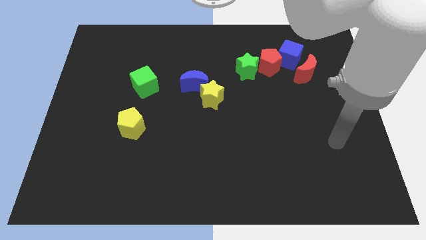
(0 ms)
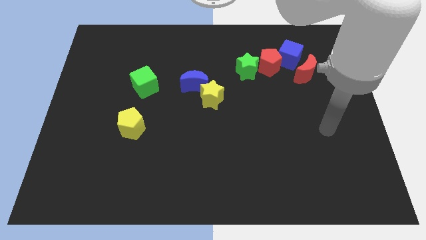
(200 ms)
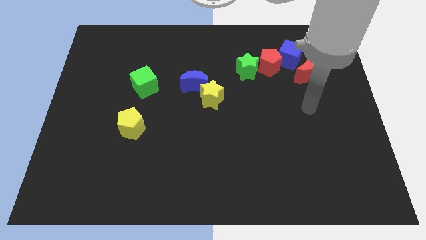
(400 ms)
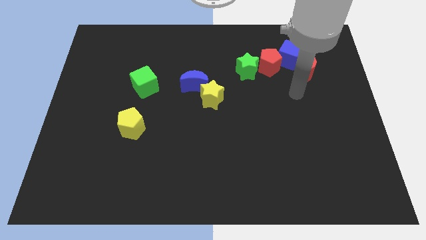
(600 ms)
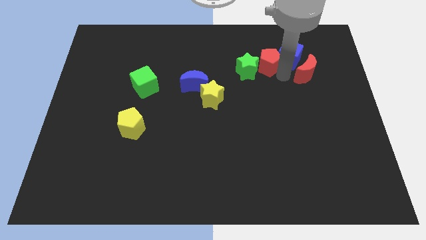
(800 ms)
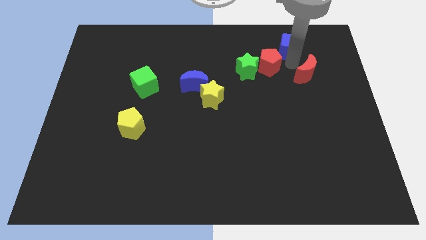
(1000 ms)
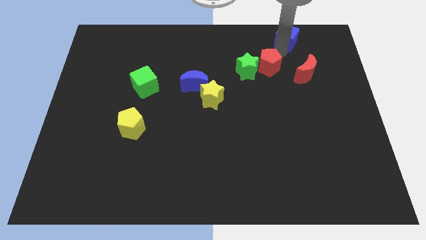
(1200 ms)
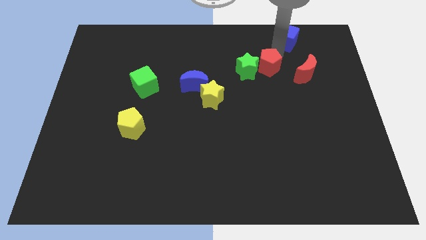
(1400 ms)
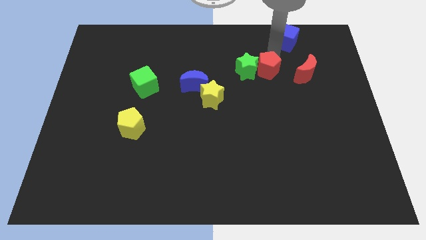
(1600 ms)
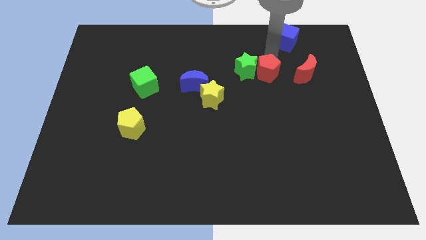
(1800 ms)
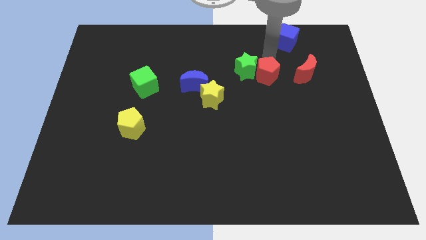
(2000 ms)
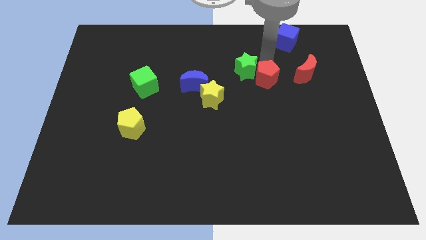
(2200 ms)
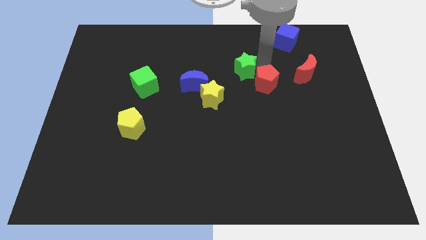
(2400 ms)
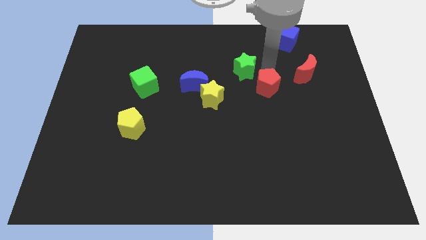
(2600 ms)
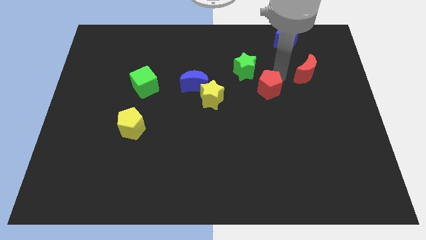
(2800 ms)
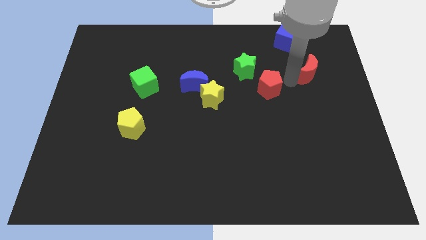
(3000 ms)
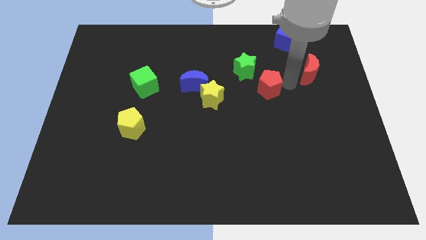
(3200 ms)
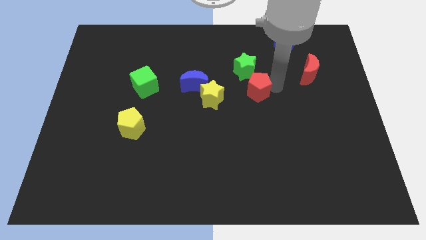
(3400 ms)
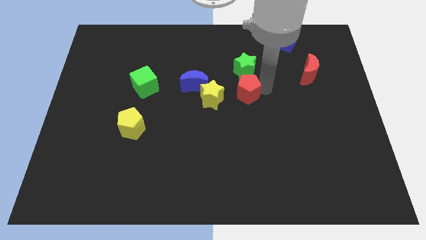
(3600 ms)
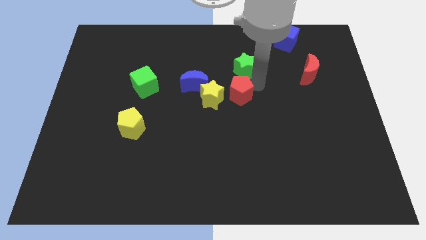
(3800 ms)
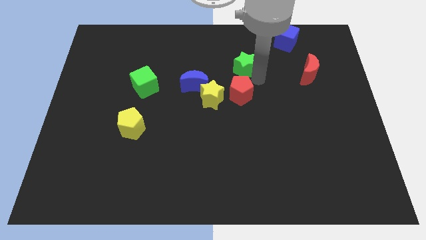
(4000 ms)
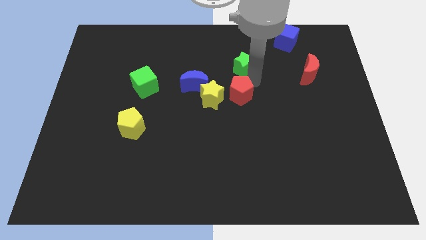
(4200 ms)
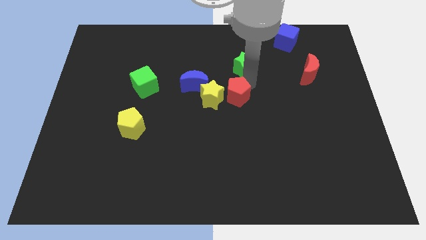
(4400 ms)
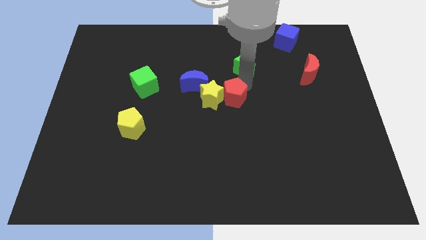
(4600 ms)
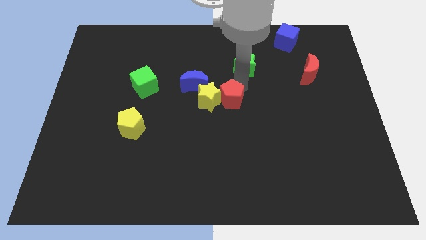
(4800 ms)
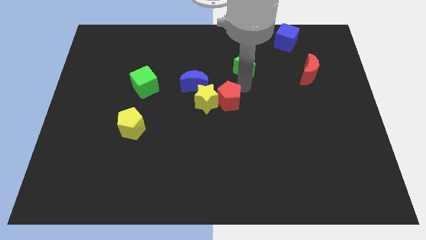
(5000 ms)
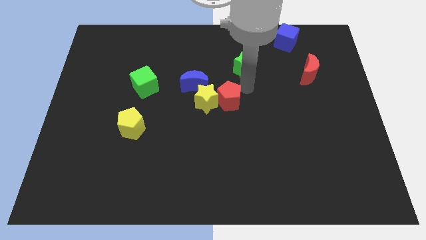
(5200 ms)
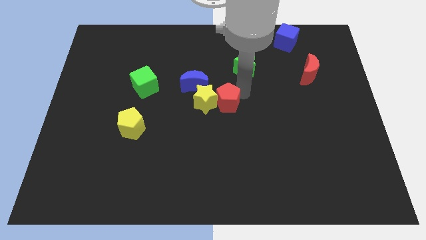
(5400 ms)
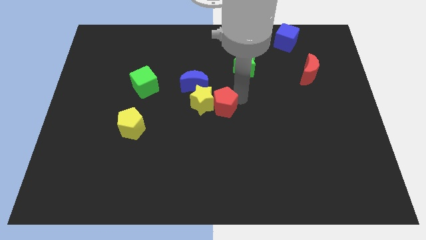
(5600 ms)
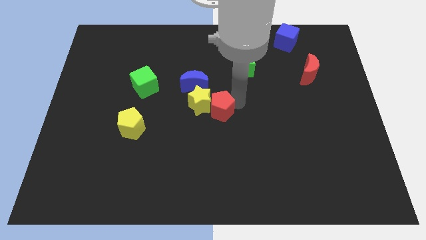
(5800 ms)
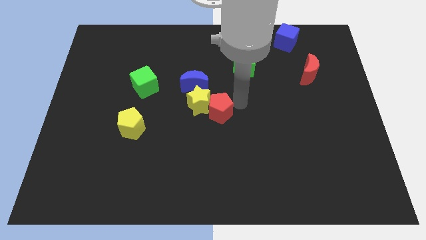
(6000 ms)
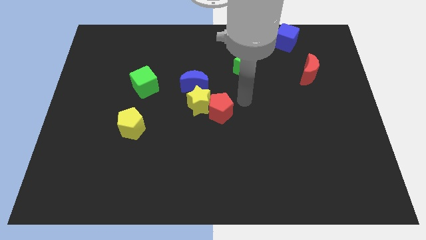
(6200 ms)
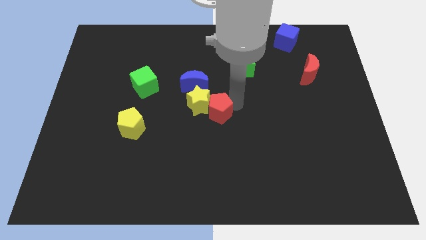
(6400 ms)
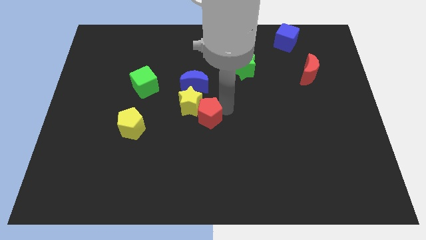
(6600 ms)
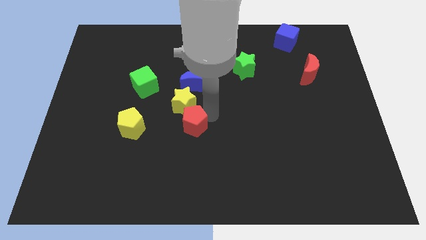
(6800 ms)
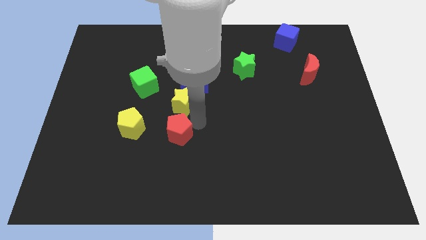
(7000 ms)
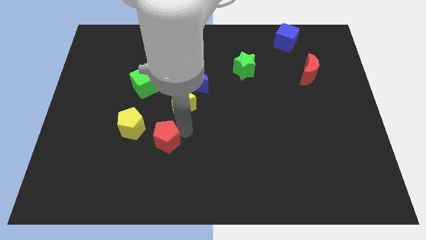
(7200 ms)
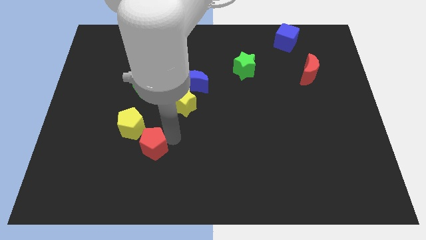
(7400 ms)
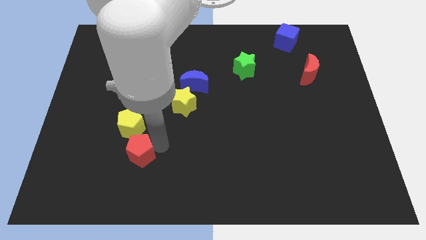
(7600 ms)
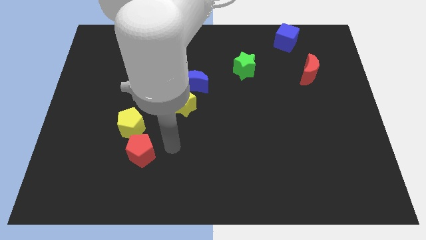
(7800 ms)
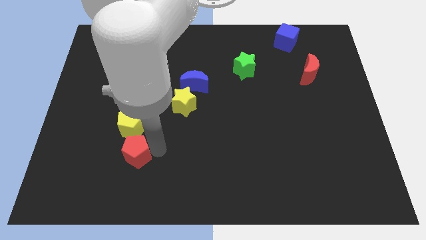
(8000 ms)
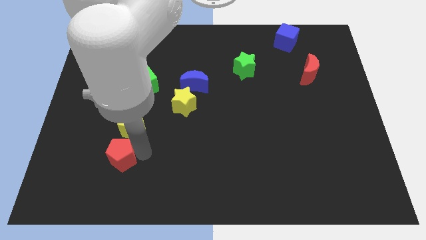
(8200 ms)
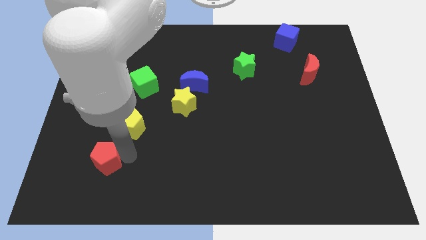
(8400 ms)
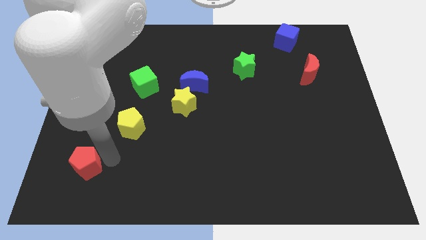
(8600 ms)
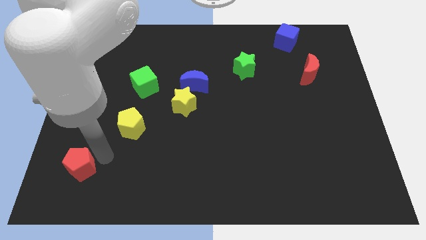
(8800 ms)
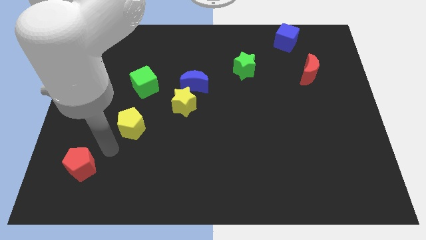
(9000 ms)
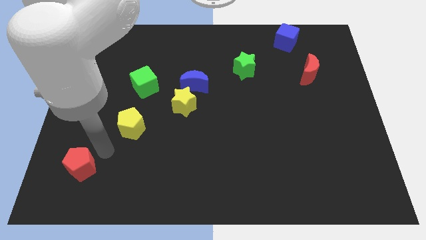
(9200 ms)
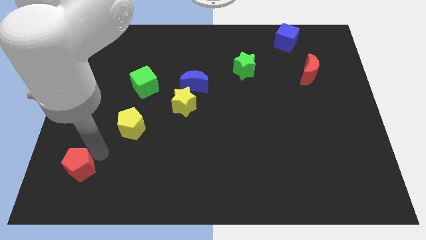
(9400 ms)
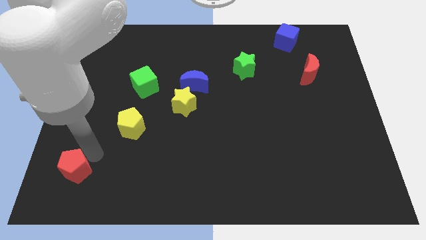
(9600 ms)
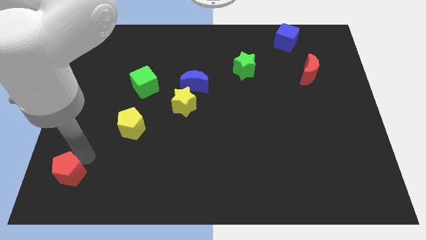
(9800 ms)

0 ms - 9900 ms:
put the red pentagon to the bottom left

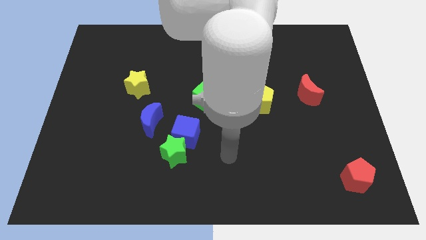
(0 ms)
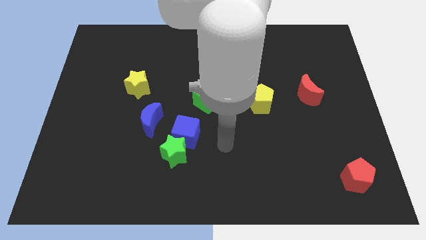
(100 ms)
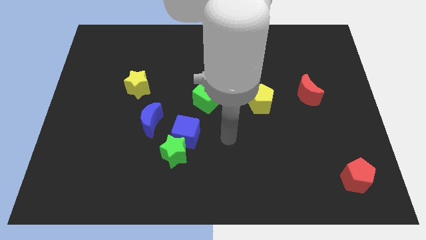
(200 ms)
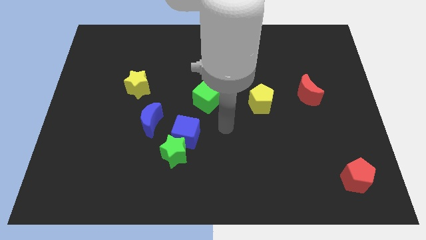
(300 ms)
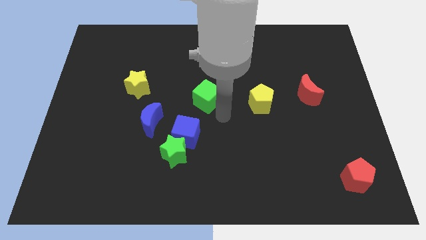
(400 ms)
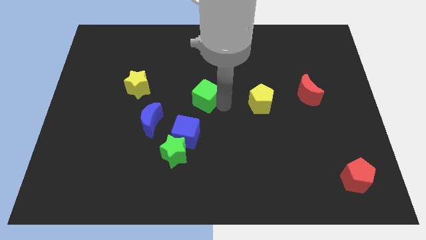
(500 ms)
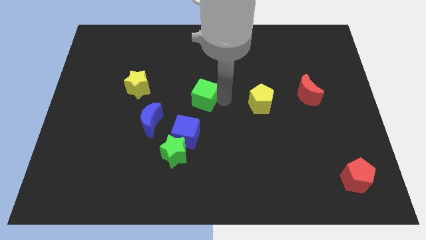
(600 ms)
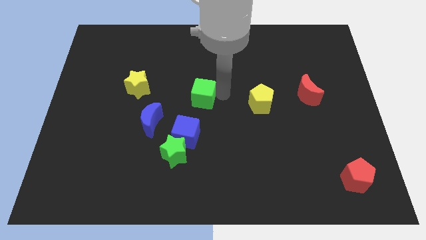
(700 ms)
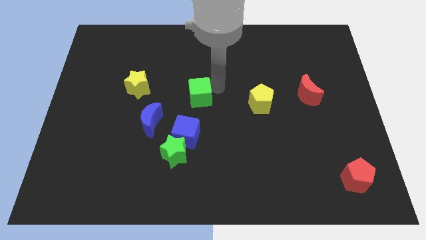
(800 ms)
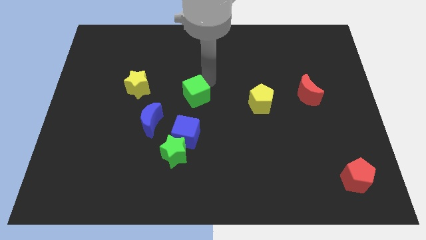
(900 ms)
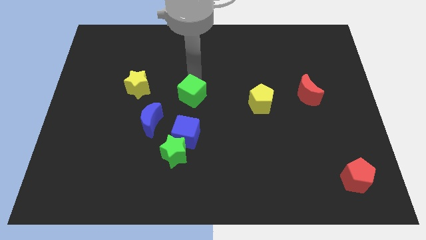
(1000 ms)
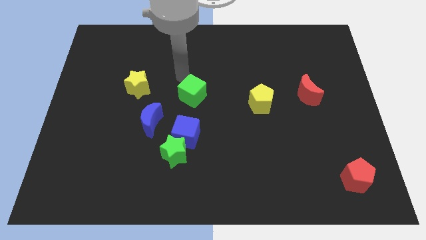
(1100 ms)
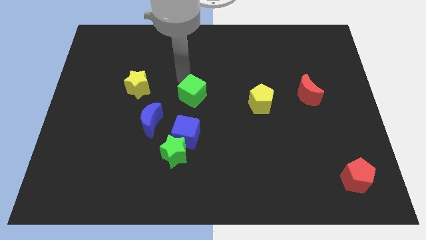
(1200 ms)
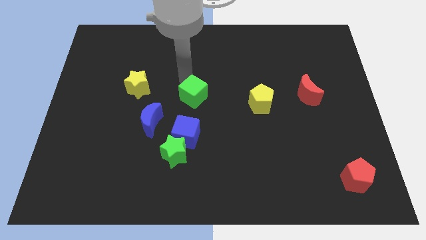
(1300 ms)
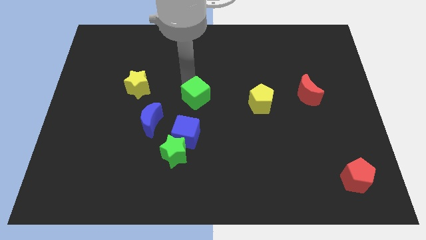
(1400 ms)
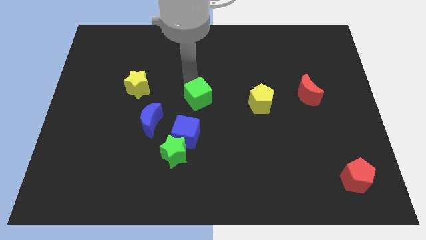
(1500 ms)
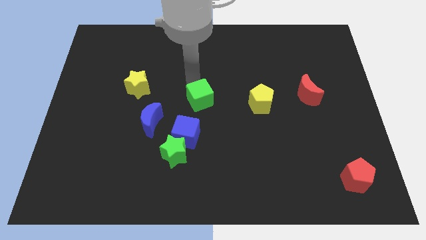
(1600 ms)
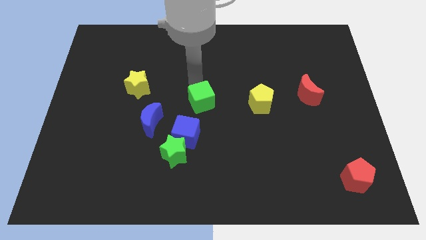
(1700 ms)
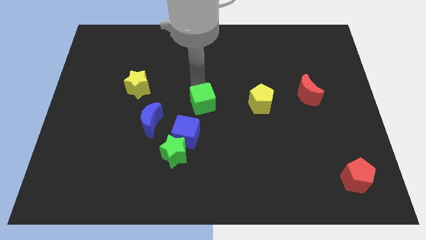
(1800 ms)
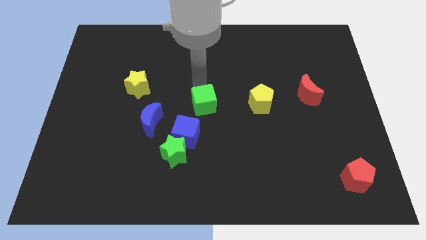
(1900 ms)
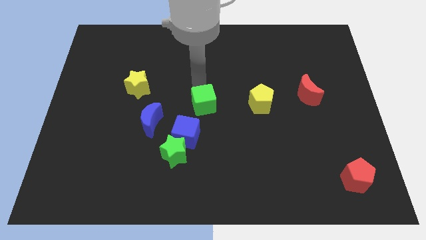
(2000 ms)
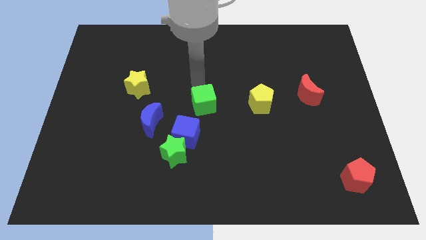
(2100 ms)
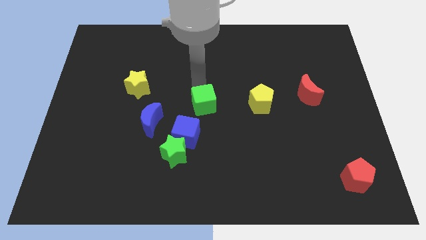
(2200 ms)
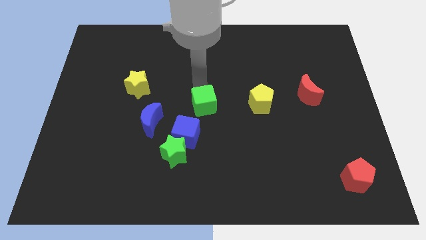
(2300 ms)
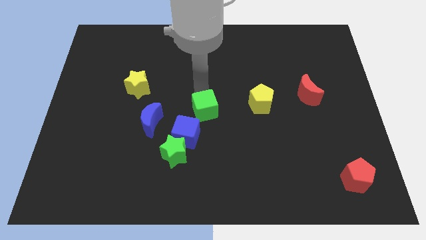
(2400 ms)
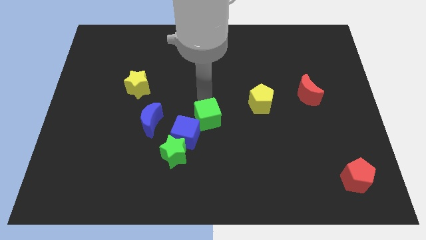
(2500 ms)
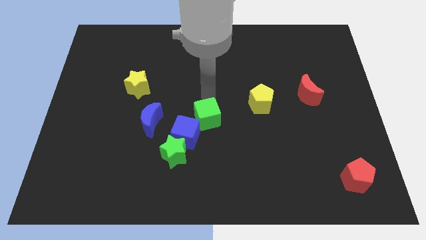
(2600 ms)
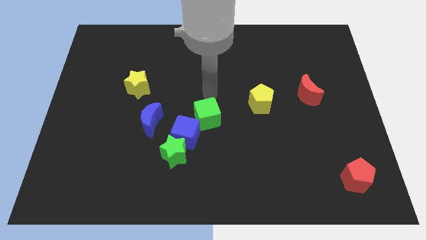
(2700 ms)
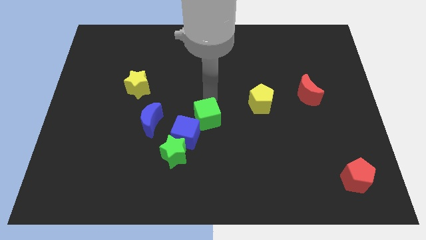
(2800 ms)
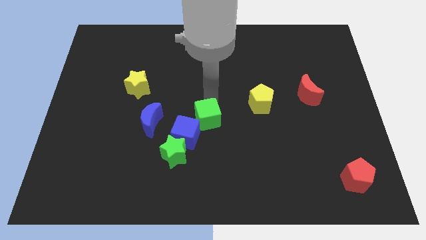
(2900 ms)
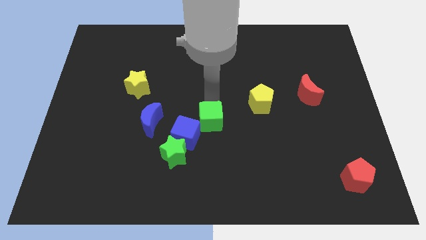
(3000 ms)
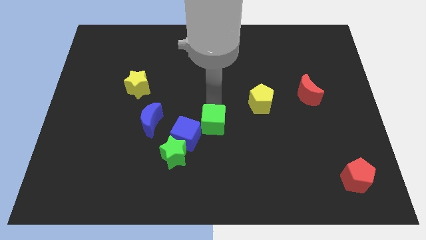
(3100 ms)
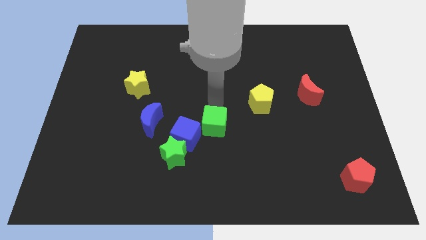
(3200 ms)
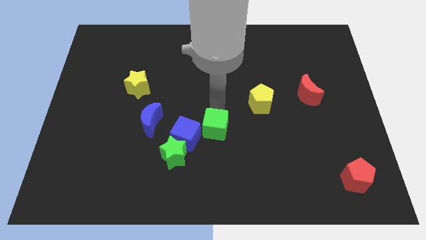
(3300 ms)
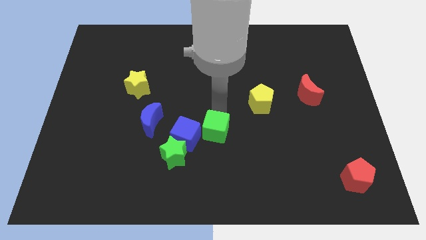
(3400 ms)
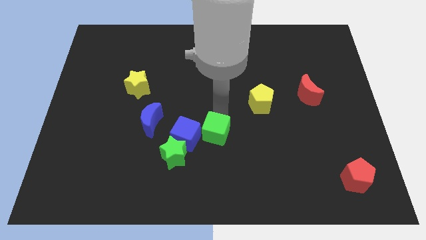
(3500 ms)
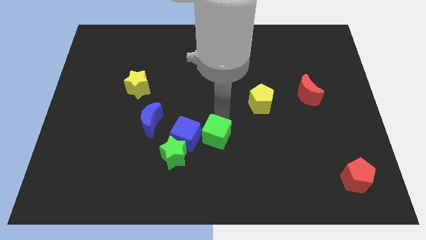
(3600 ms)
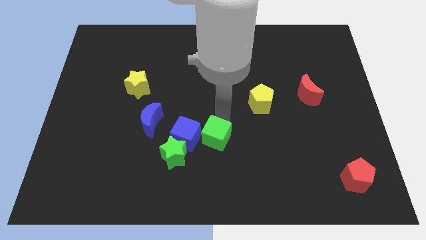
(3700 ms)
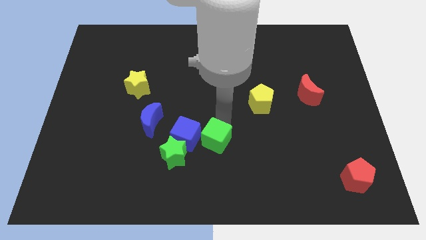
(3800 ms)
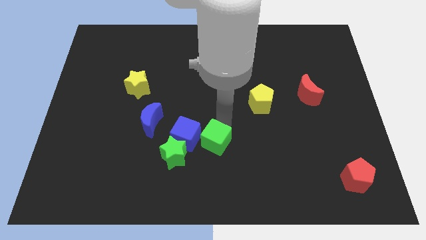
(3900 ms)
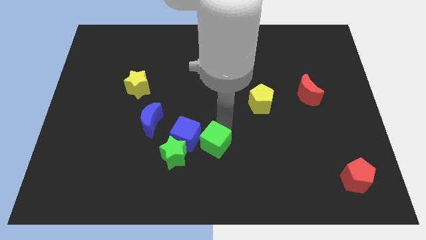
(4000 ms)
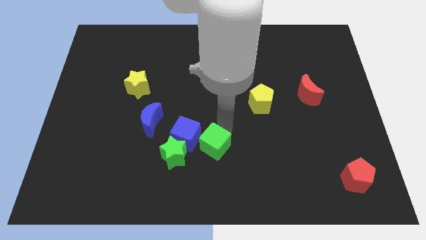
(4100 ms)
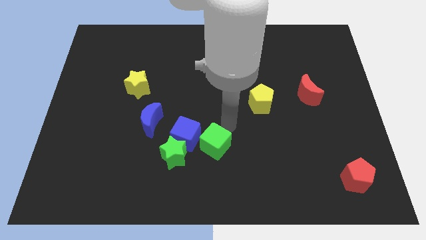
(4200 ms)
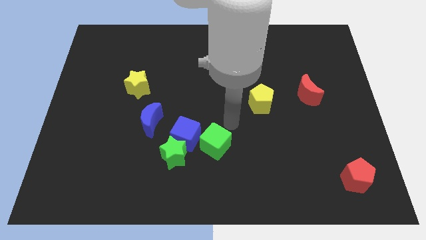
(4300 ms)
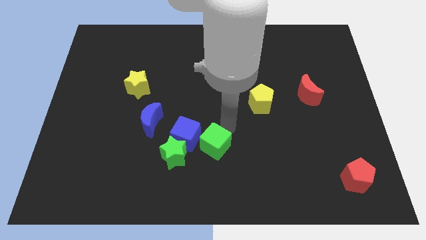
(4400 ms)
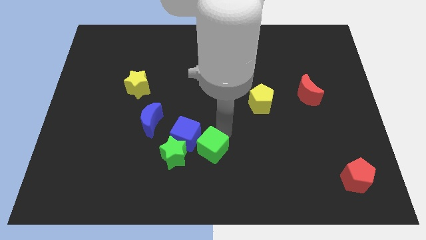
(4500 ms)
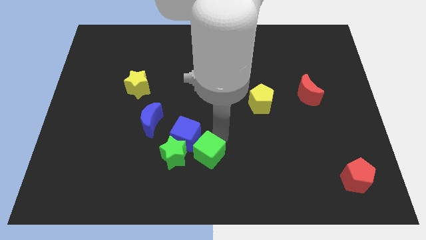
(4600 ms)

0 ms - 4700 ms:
slide the green cube to the bottom
